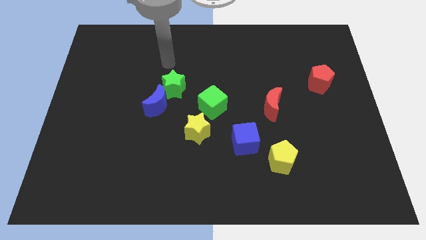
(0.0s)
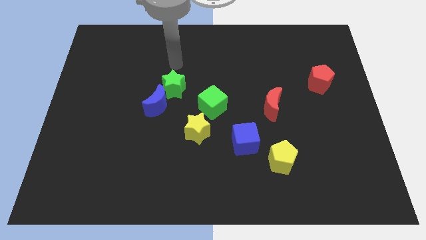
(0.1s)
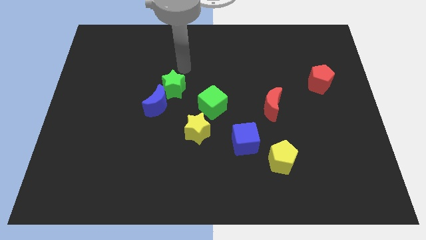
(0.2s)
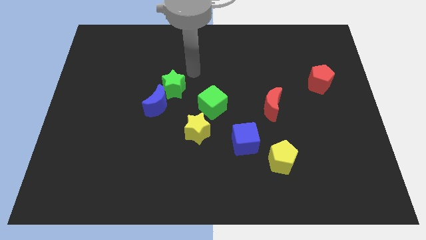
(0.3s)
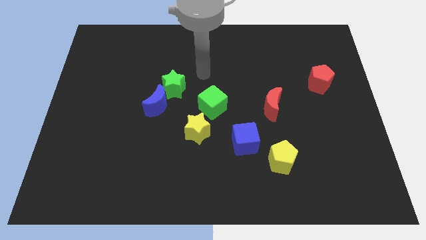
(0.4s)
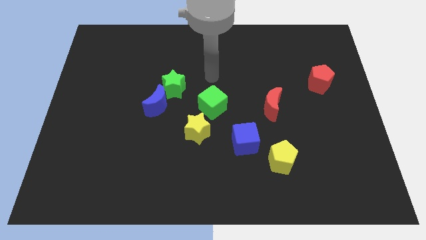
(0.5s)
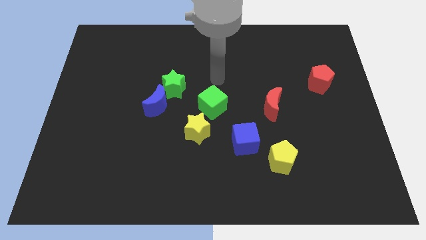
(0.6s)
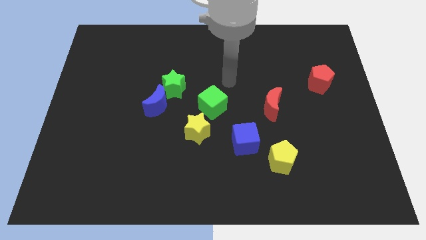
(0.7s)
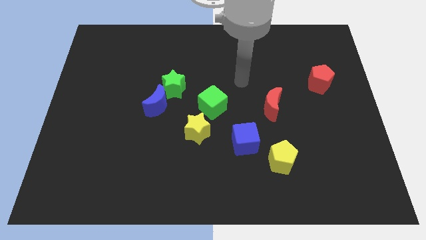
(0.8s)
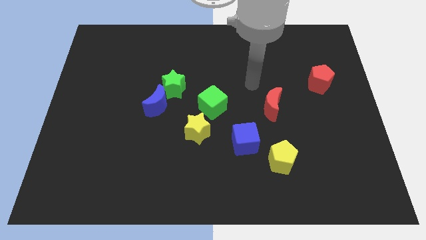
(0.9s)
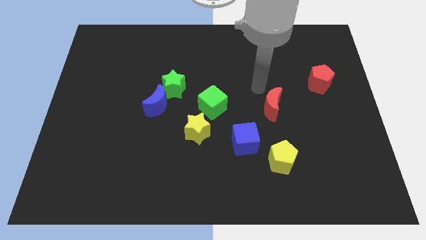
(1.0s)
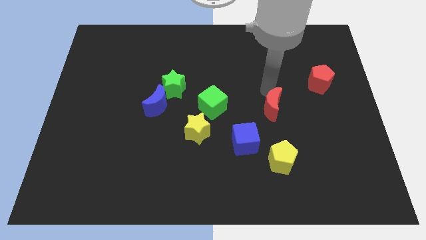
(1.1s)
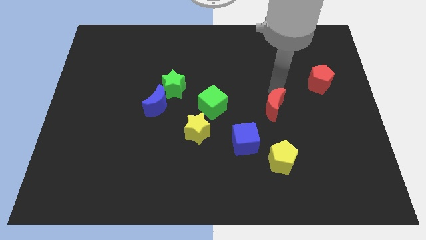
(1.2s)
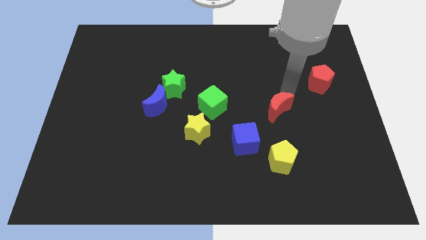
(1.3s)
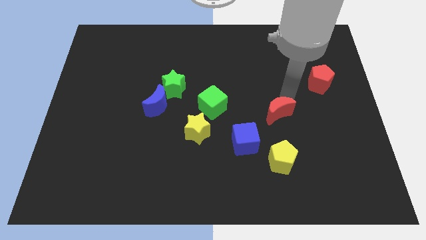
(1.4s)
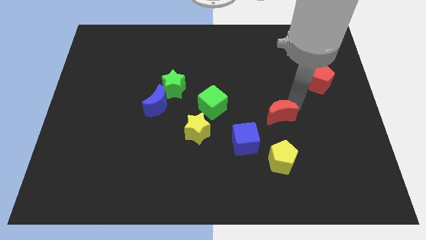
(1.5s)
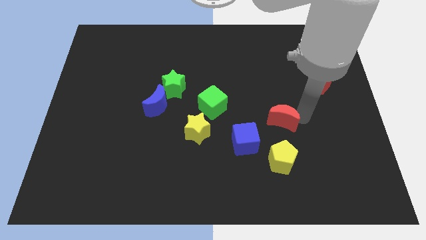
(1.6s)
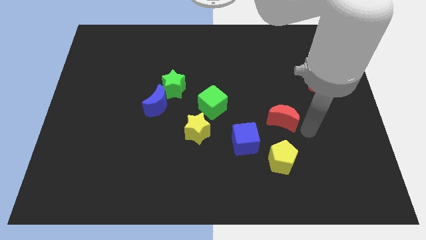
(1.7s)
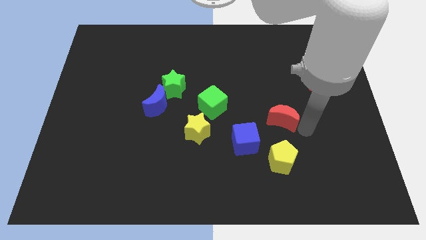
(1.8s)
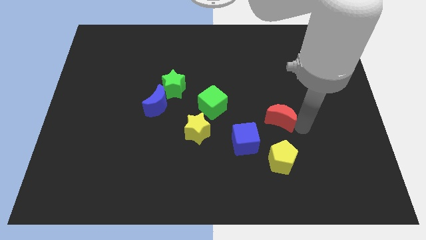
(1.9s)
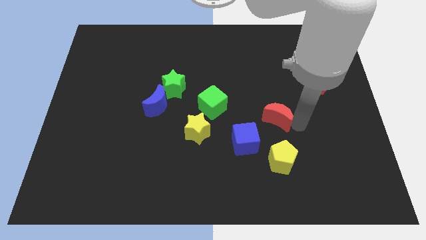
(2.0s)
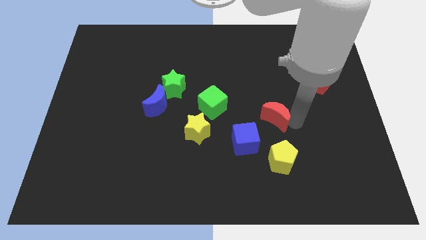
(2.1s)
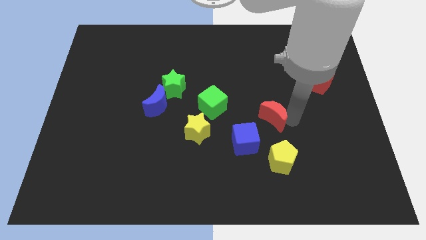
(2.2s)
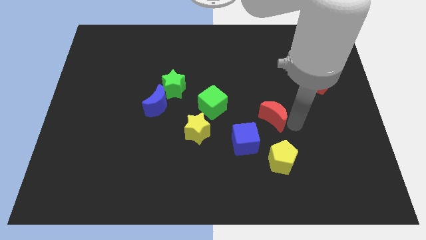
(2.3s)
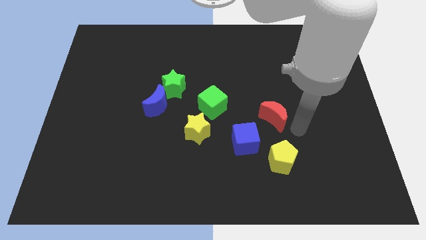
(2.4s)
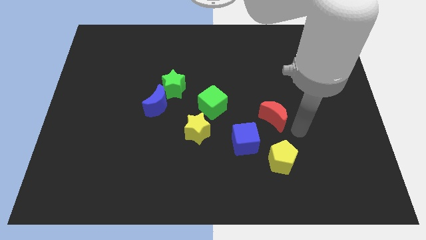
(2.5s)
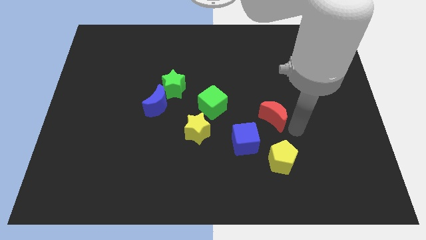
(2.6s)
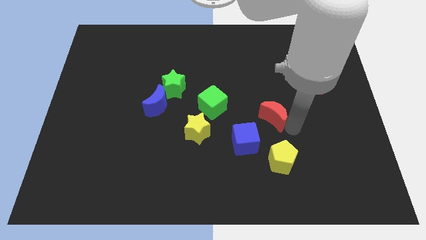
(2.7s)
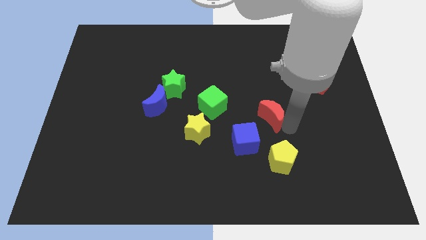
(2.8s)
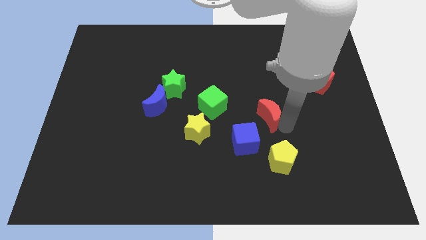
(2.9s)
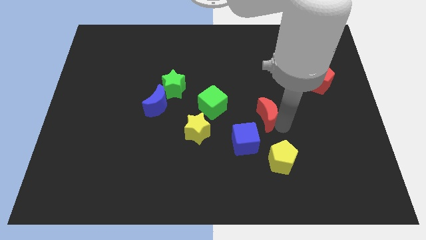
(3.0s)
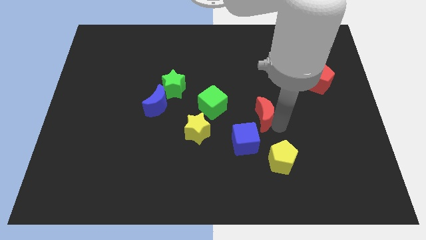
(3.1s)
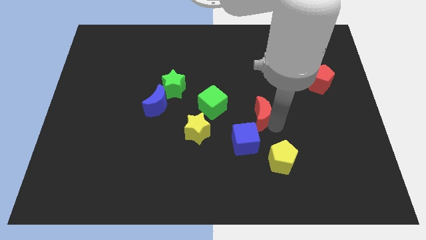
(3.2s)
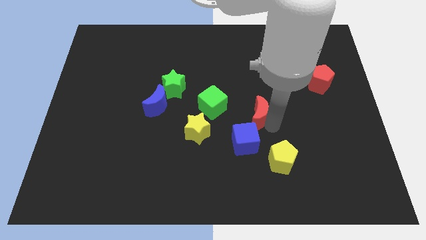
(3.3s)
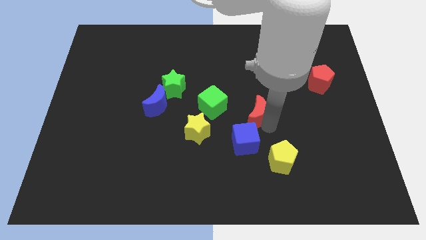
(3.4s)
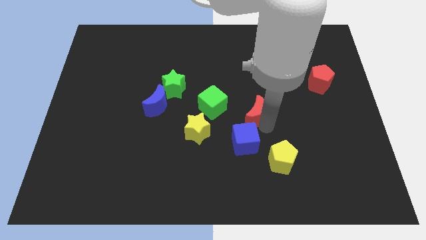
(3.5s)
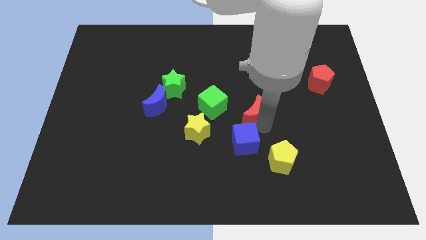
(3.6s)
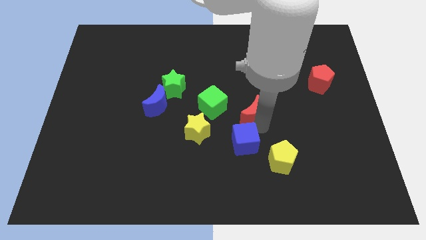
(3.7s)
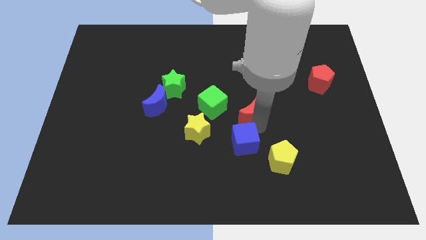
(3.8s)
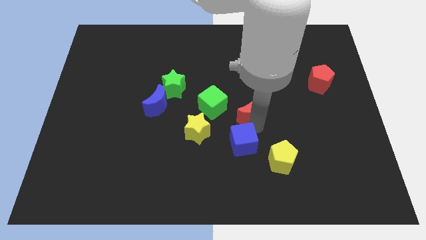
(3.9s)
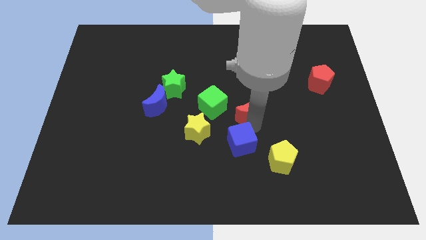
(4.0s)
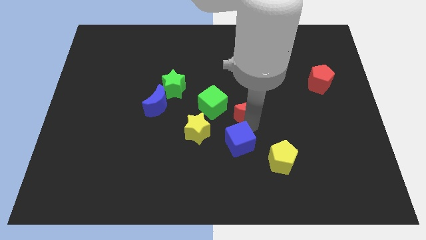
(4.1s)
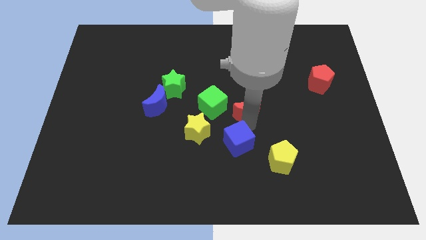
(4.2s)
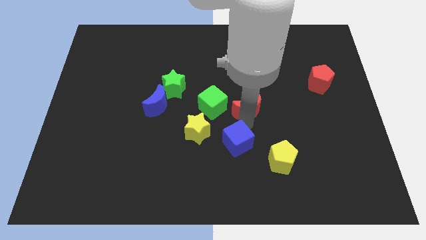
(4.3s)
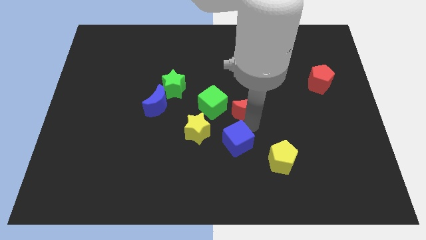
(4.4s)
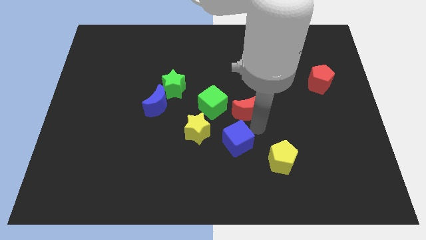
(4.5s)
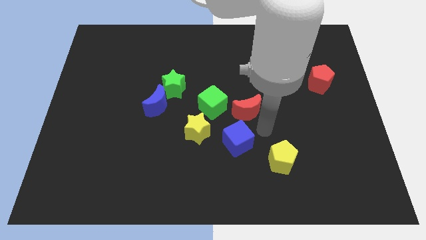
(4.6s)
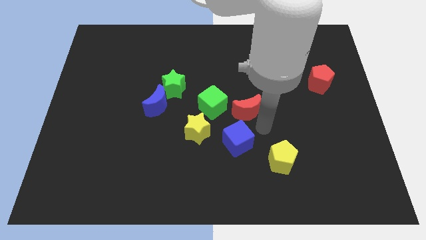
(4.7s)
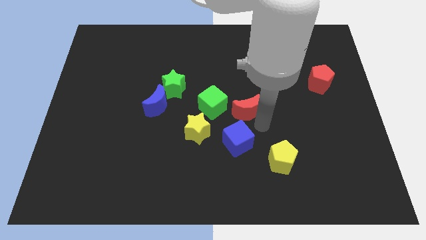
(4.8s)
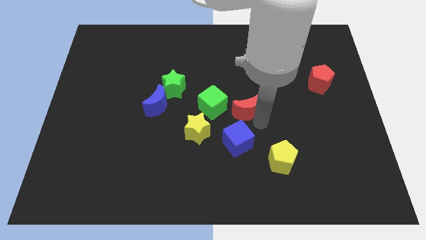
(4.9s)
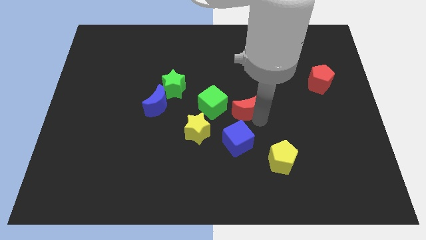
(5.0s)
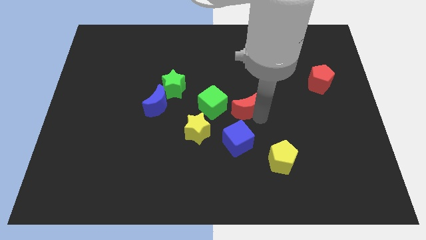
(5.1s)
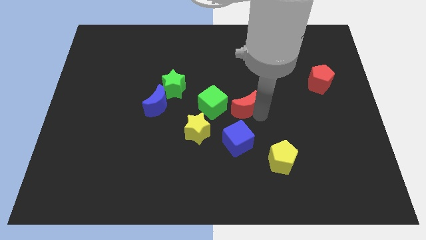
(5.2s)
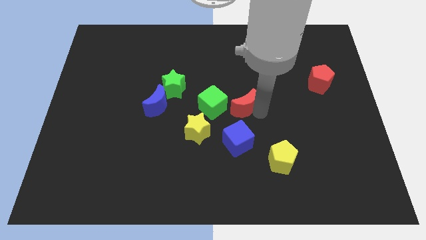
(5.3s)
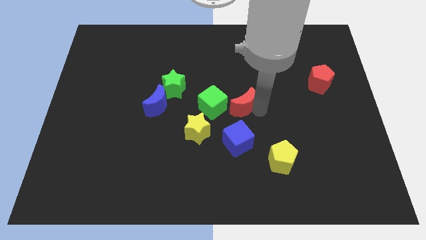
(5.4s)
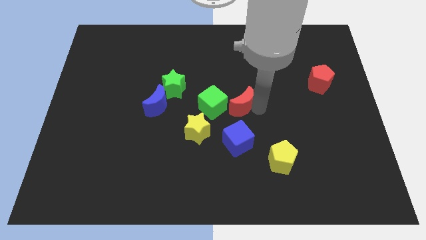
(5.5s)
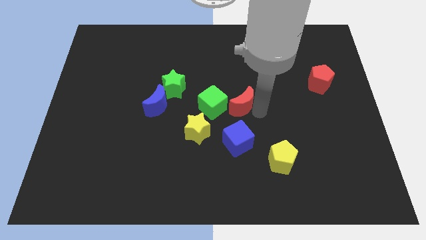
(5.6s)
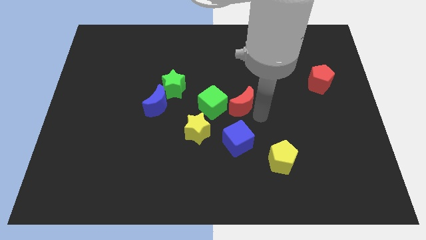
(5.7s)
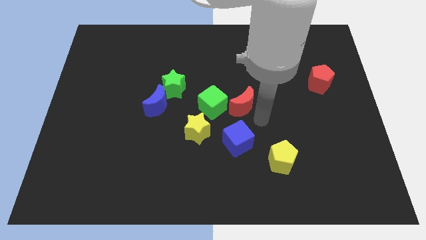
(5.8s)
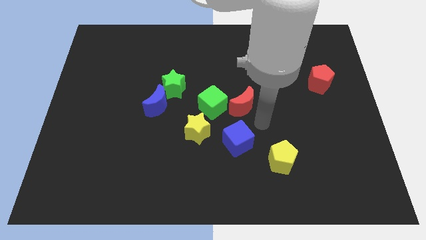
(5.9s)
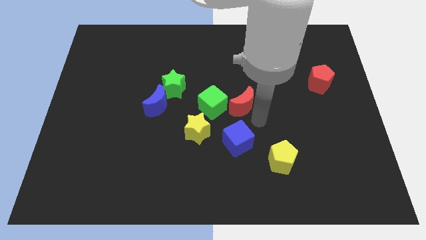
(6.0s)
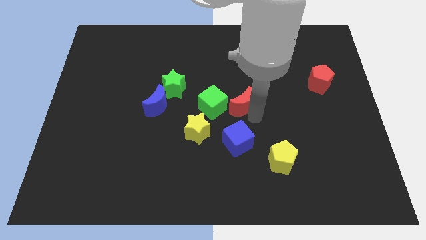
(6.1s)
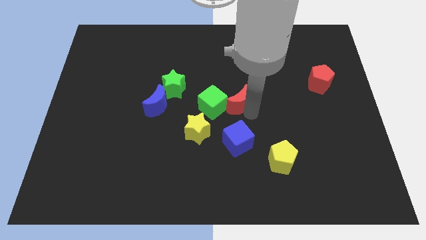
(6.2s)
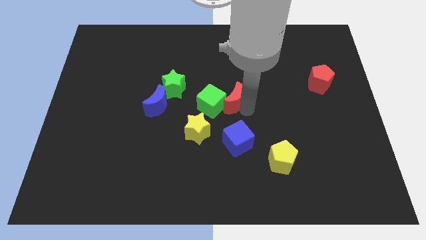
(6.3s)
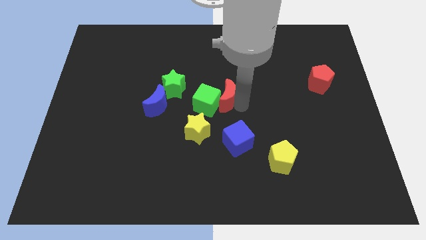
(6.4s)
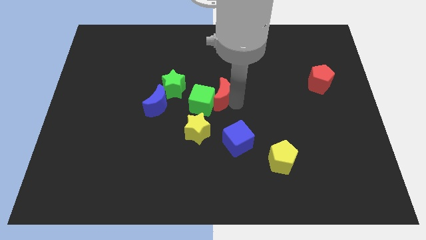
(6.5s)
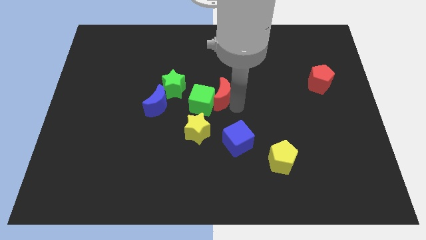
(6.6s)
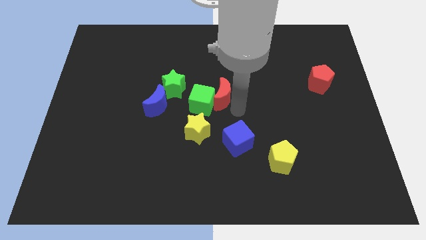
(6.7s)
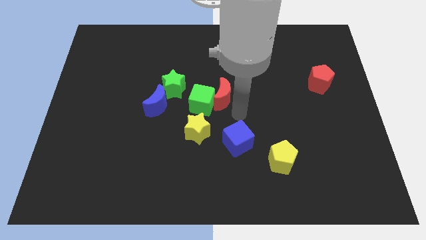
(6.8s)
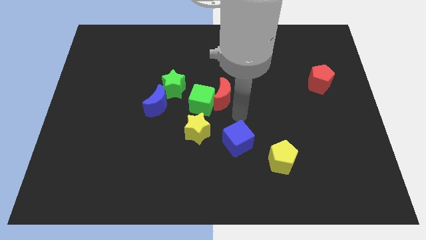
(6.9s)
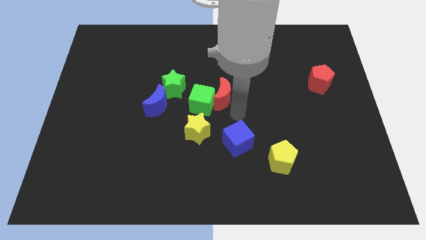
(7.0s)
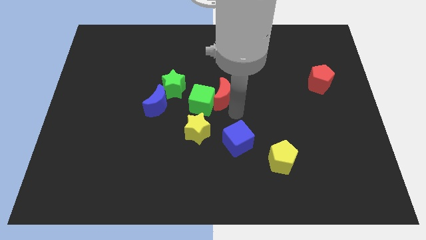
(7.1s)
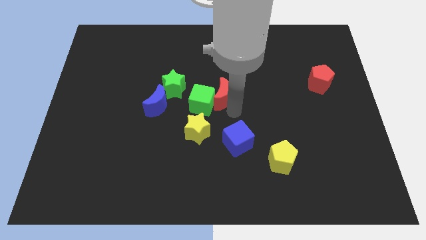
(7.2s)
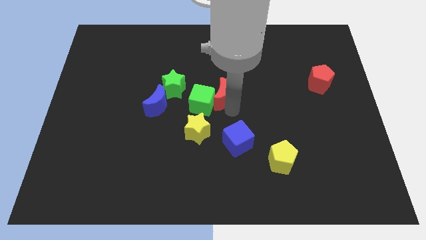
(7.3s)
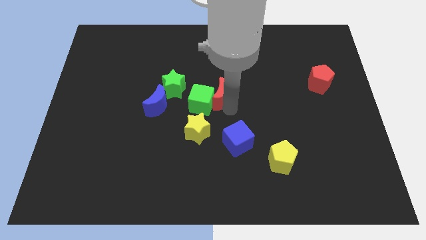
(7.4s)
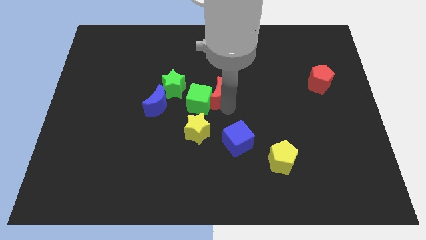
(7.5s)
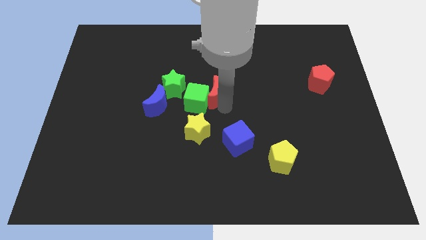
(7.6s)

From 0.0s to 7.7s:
put the red moon to the top of the yellow star
